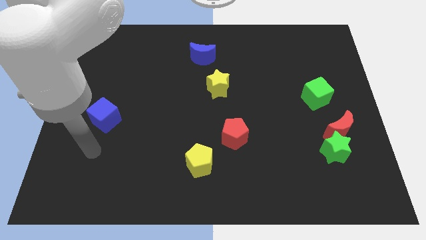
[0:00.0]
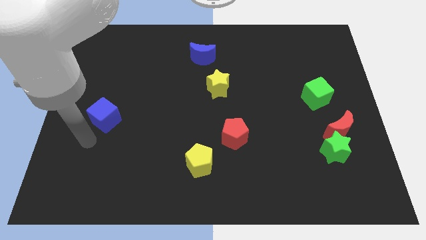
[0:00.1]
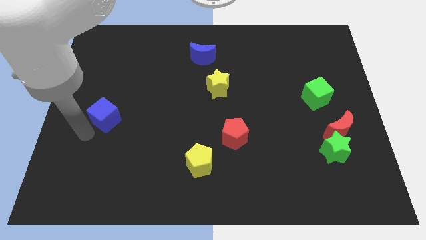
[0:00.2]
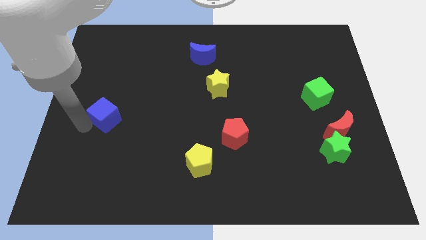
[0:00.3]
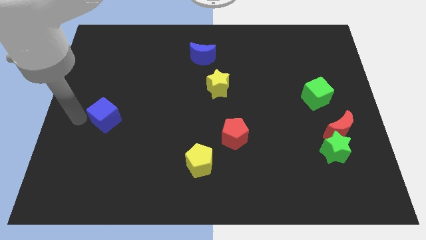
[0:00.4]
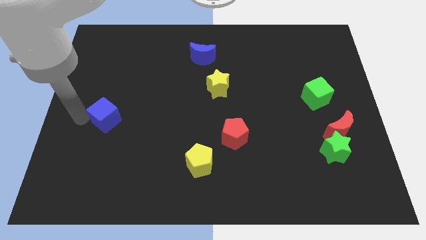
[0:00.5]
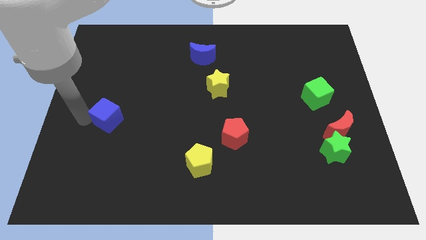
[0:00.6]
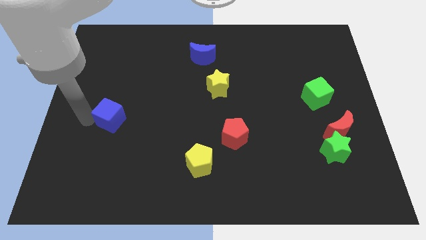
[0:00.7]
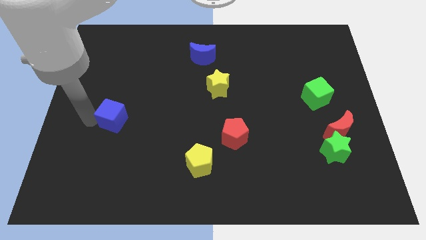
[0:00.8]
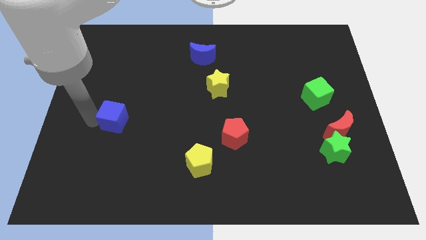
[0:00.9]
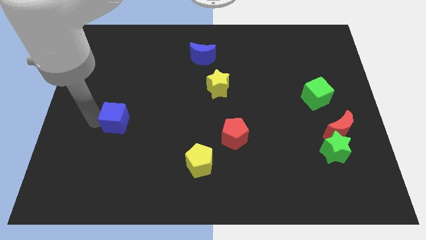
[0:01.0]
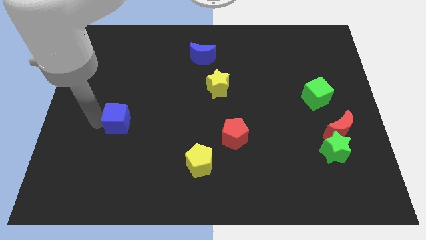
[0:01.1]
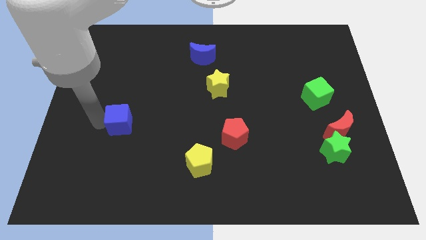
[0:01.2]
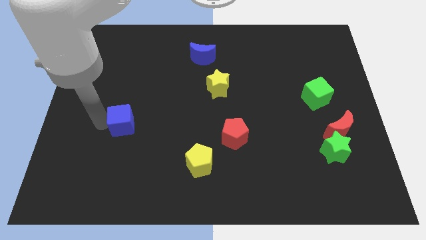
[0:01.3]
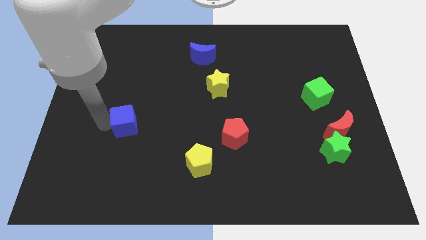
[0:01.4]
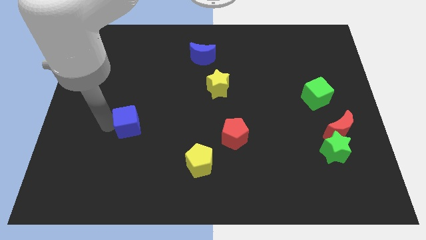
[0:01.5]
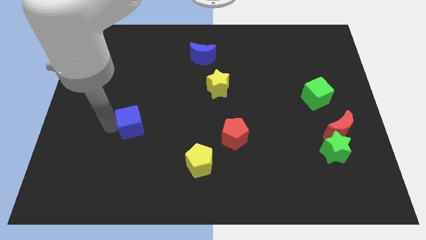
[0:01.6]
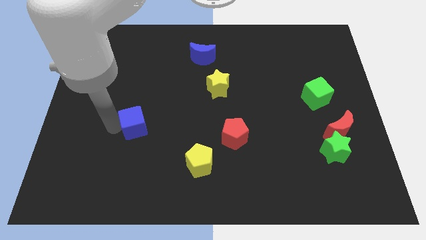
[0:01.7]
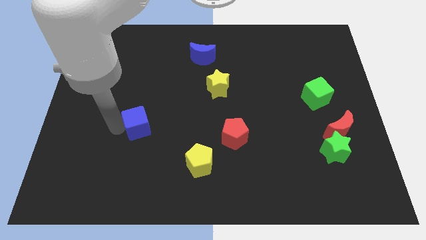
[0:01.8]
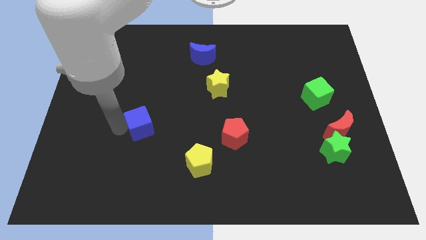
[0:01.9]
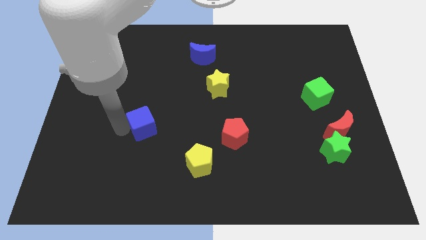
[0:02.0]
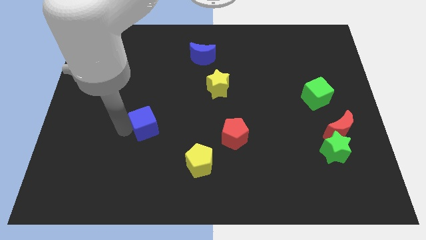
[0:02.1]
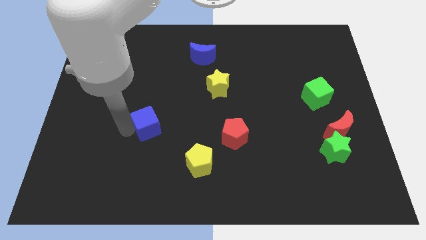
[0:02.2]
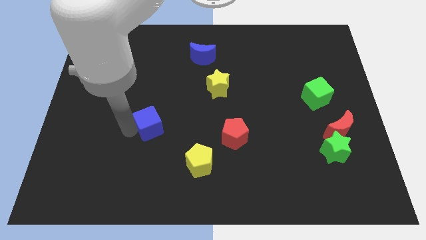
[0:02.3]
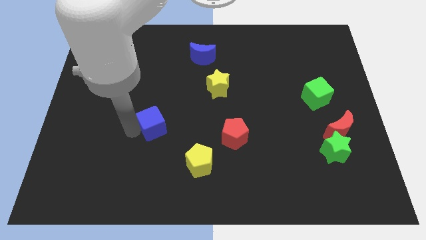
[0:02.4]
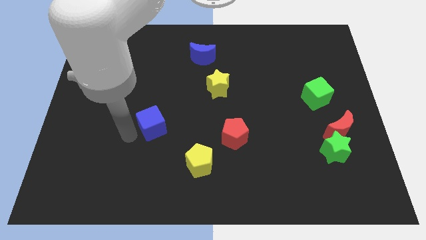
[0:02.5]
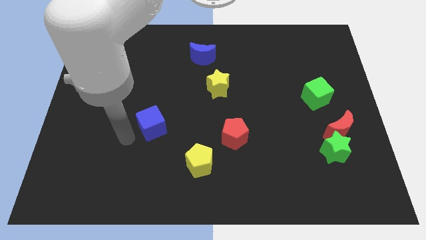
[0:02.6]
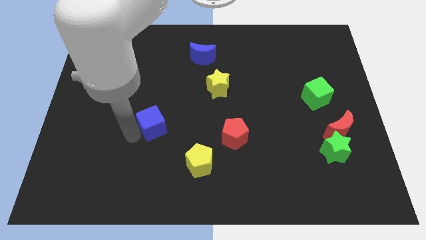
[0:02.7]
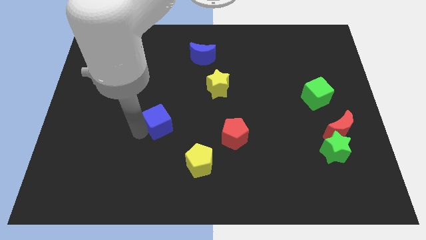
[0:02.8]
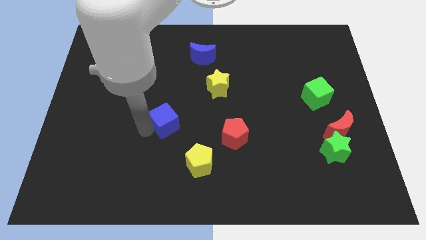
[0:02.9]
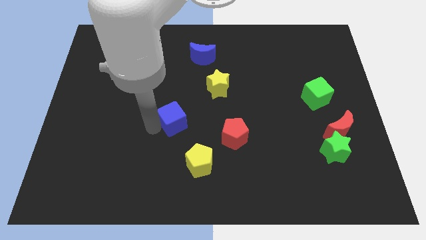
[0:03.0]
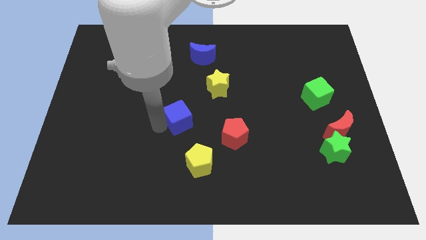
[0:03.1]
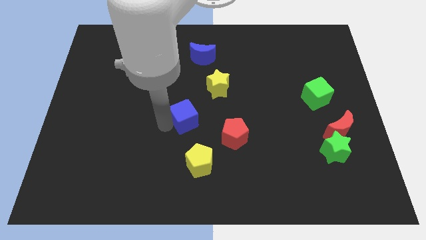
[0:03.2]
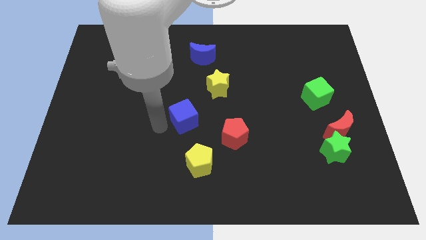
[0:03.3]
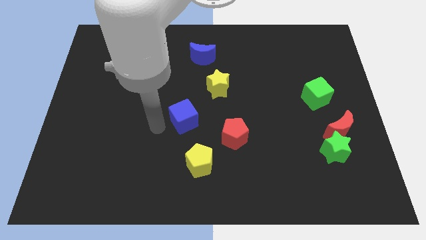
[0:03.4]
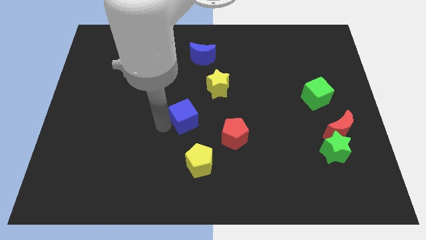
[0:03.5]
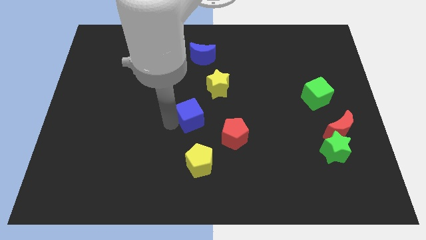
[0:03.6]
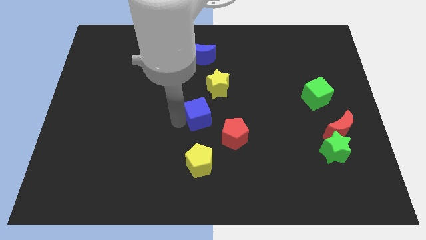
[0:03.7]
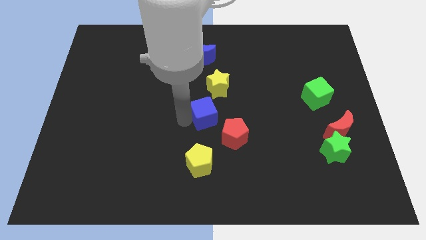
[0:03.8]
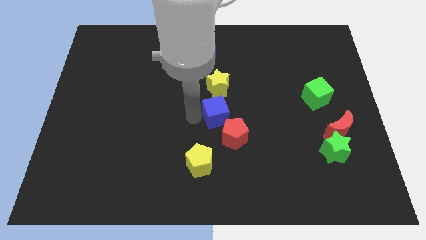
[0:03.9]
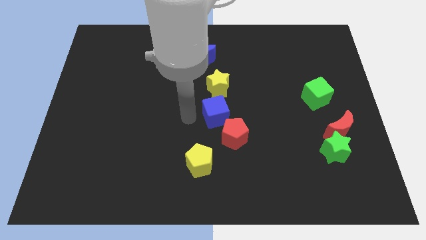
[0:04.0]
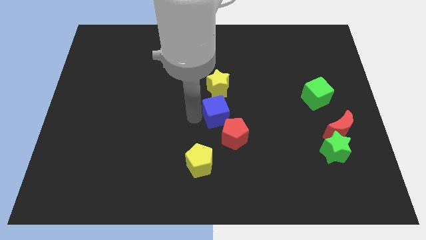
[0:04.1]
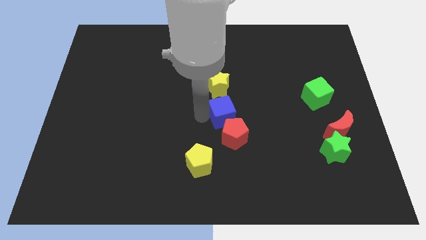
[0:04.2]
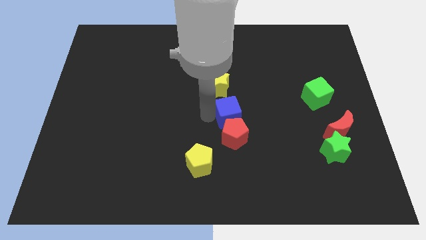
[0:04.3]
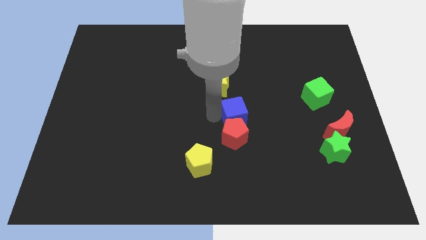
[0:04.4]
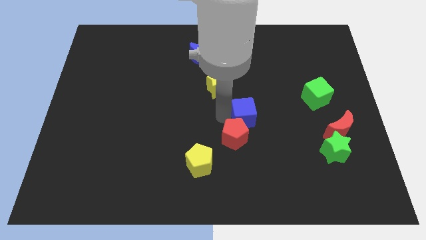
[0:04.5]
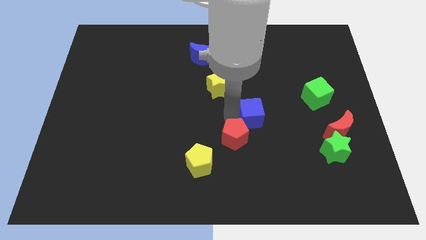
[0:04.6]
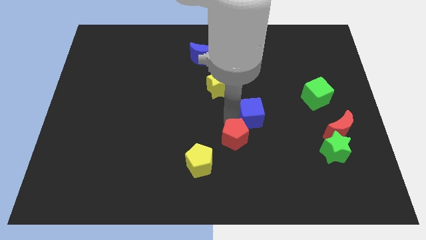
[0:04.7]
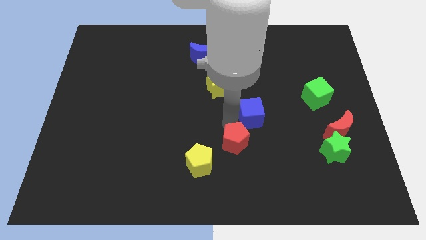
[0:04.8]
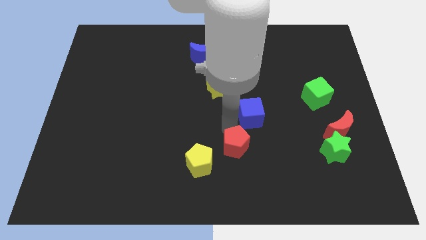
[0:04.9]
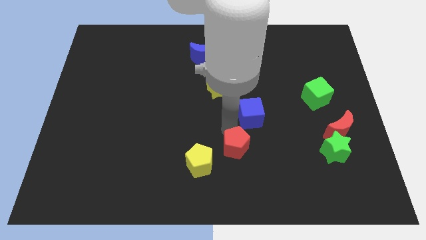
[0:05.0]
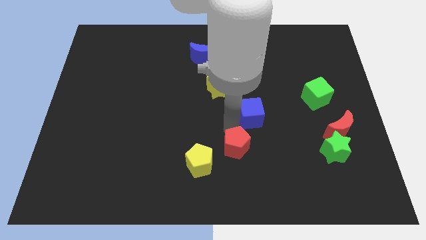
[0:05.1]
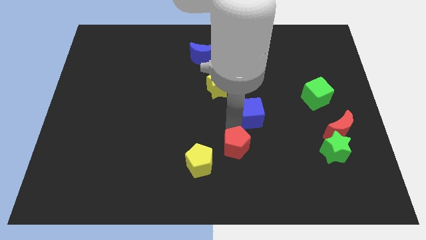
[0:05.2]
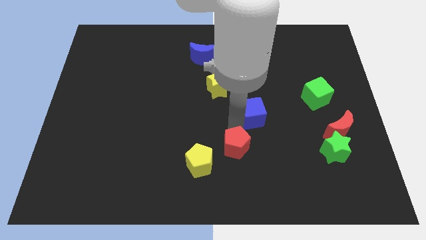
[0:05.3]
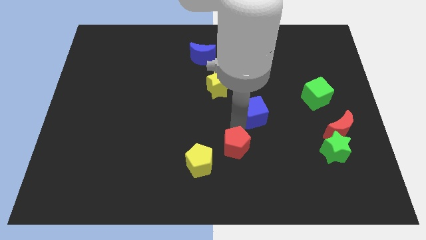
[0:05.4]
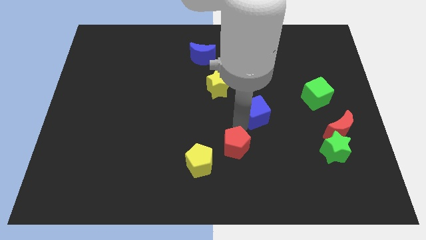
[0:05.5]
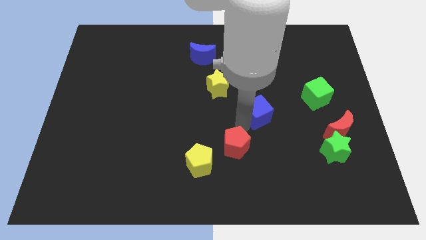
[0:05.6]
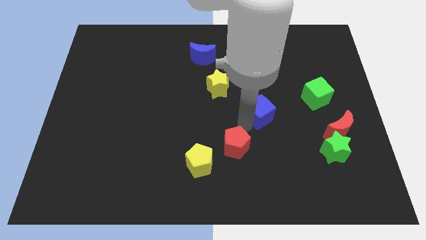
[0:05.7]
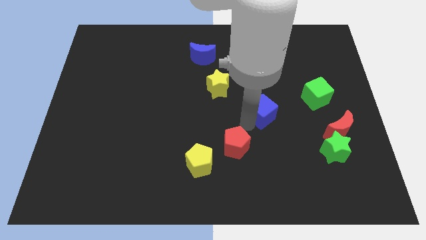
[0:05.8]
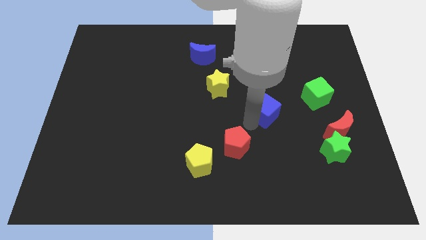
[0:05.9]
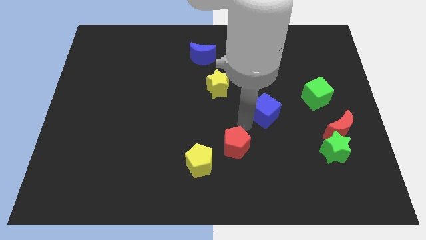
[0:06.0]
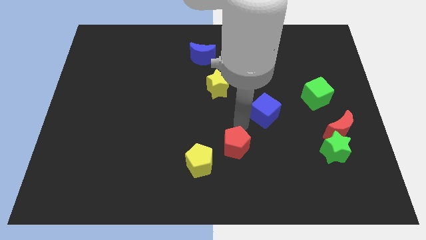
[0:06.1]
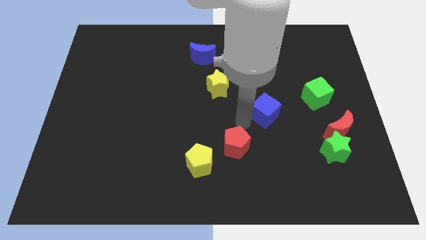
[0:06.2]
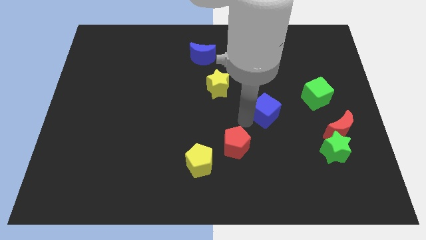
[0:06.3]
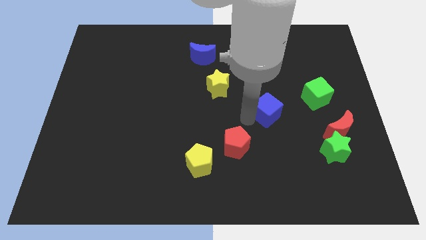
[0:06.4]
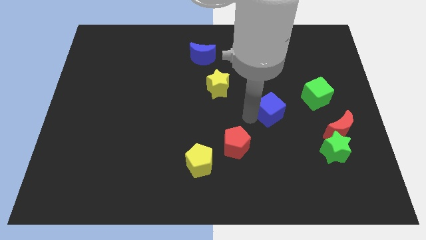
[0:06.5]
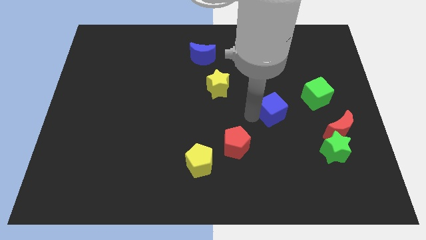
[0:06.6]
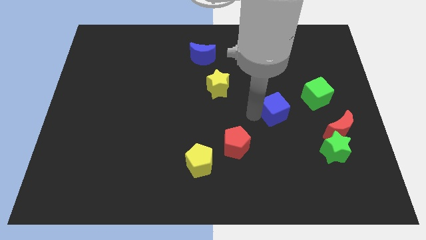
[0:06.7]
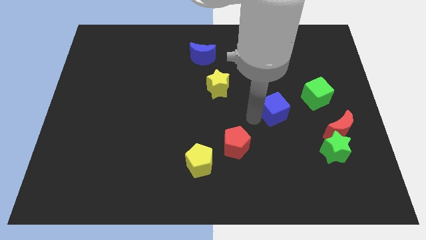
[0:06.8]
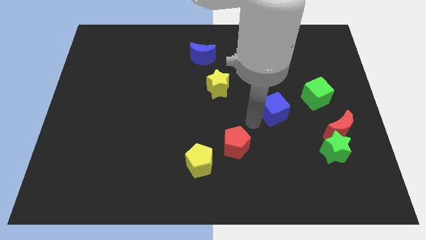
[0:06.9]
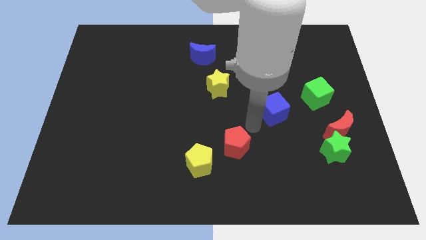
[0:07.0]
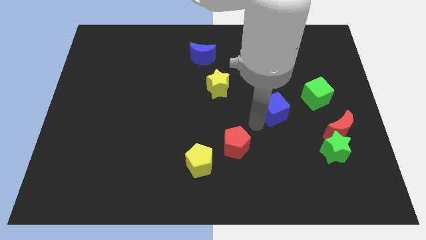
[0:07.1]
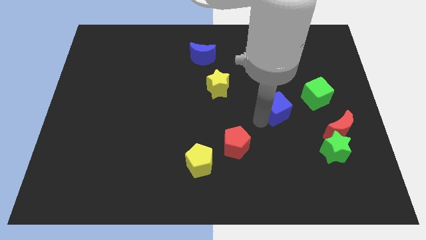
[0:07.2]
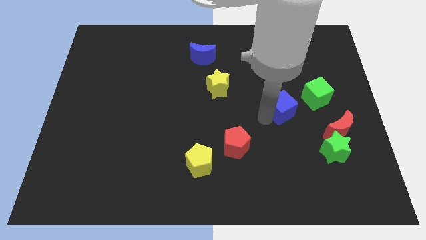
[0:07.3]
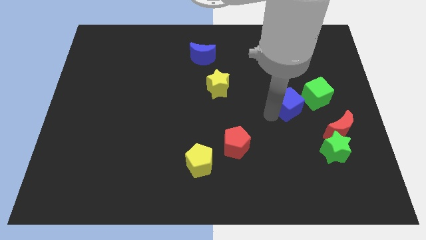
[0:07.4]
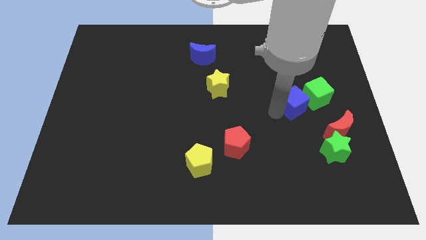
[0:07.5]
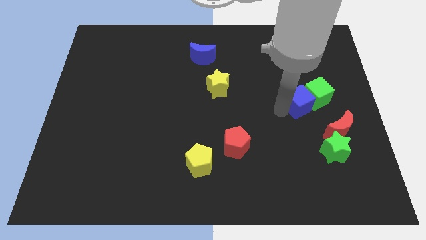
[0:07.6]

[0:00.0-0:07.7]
put the blue cube to the green cube
